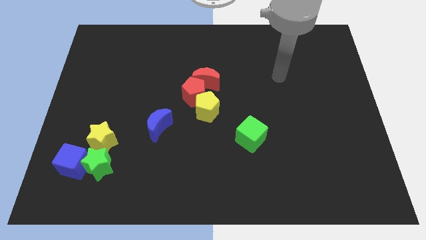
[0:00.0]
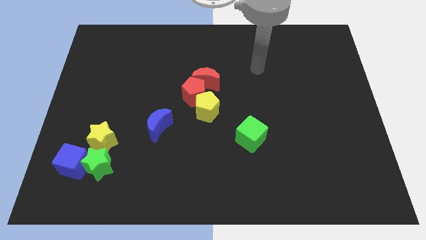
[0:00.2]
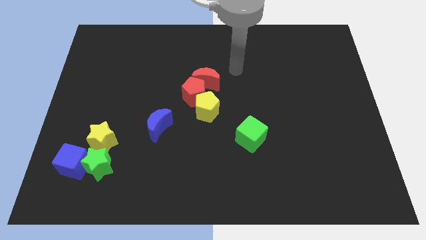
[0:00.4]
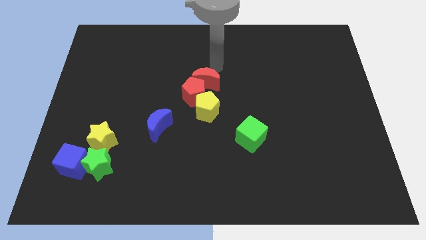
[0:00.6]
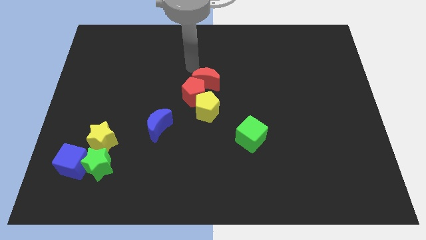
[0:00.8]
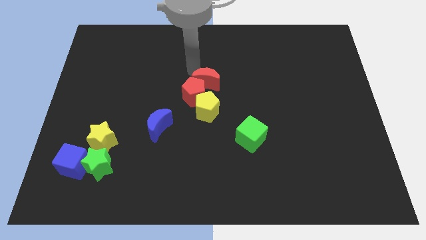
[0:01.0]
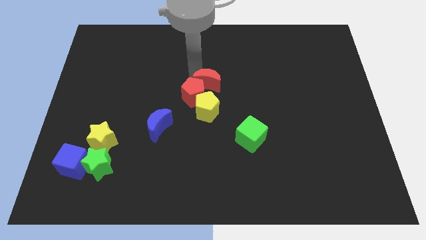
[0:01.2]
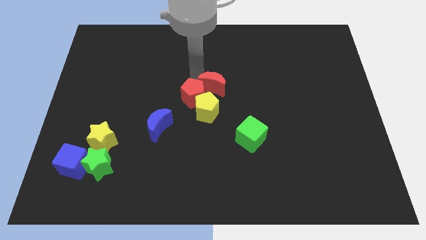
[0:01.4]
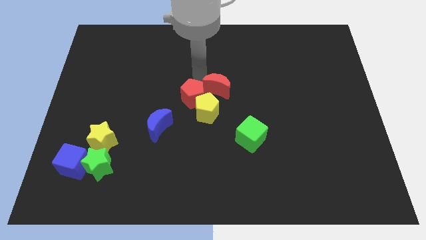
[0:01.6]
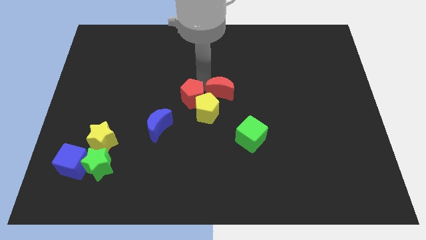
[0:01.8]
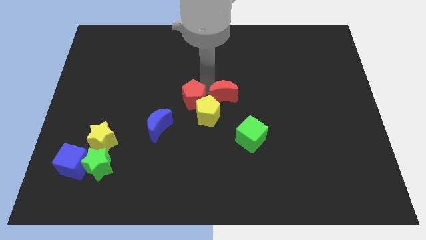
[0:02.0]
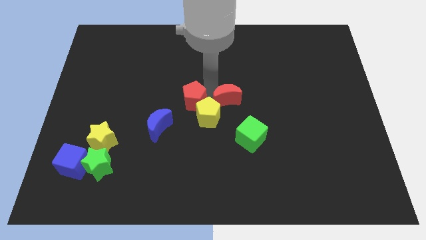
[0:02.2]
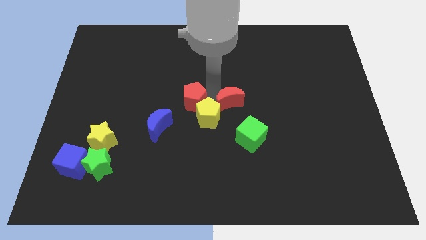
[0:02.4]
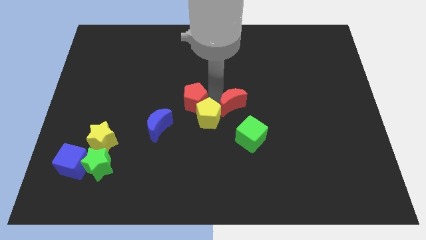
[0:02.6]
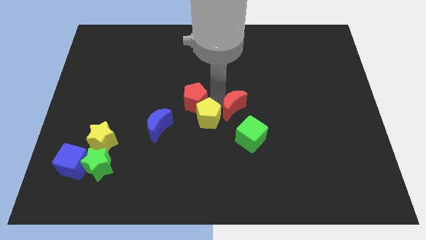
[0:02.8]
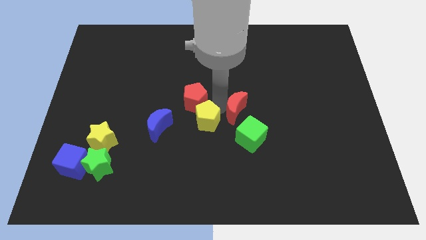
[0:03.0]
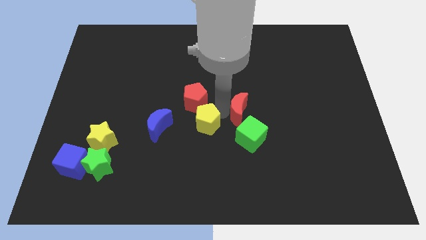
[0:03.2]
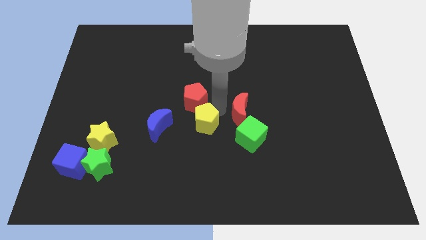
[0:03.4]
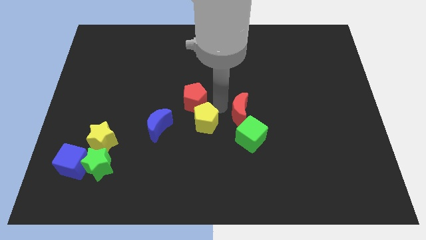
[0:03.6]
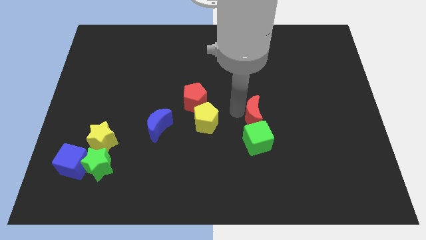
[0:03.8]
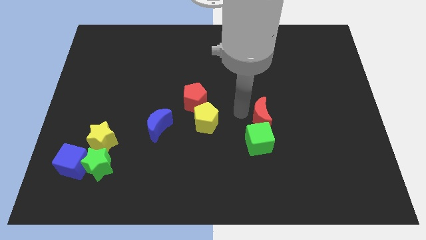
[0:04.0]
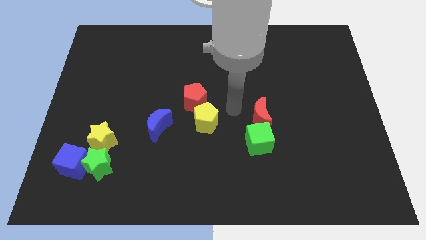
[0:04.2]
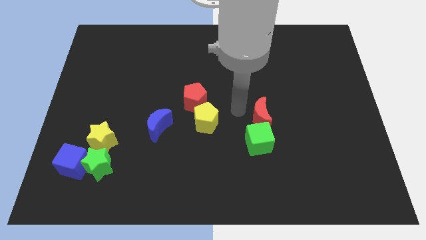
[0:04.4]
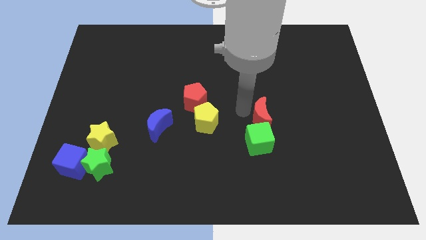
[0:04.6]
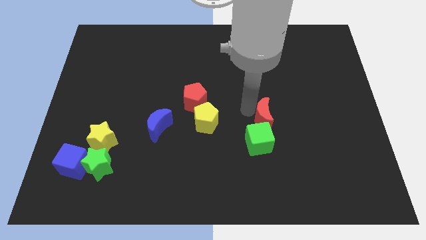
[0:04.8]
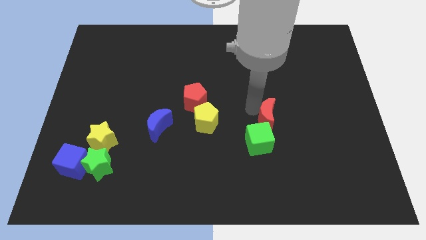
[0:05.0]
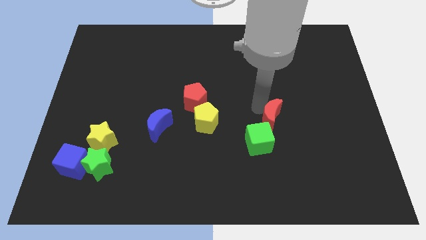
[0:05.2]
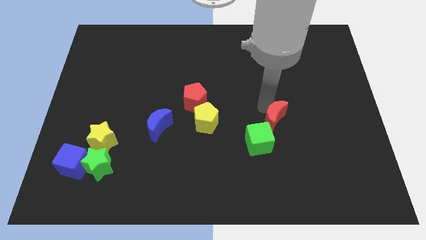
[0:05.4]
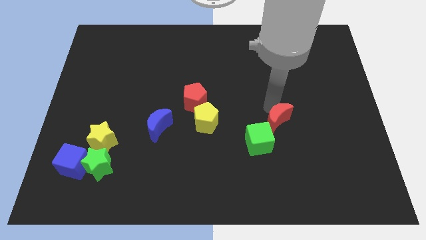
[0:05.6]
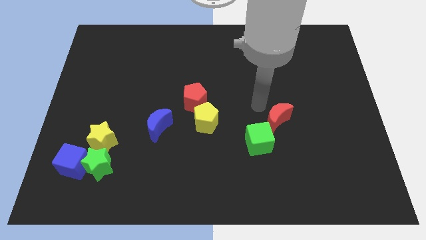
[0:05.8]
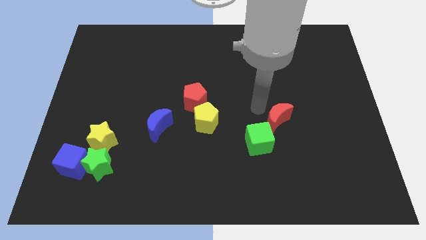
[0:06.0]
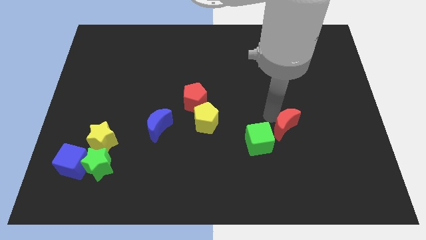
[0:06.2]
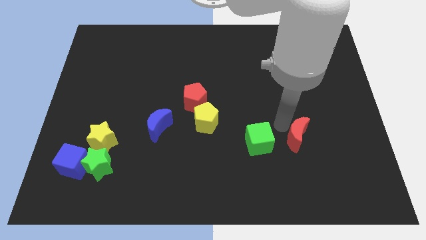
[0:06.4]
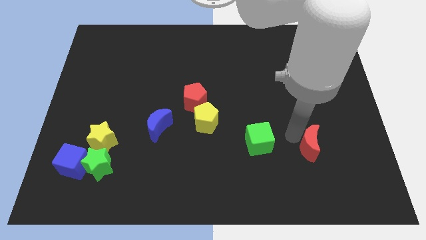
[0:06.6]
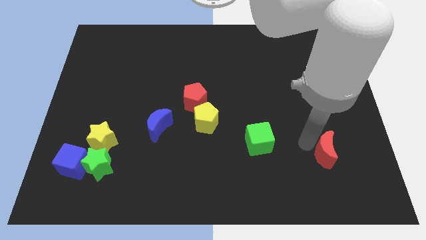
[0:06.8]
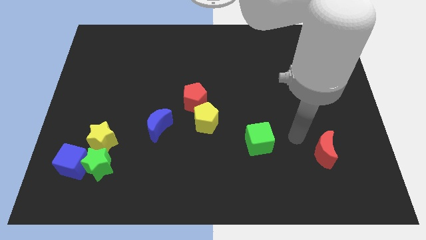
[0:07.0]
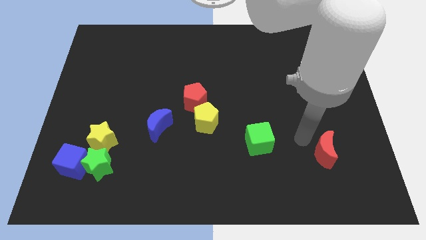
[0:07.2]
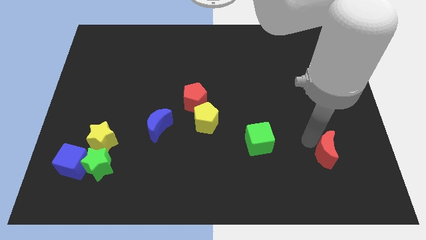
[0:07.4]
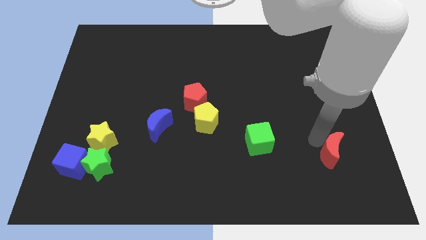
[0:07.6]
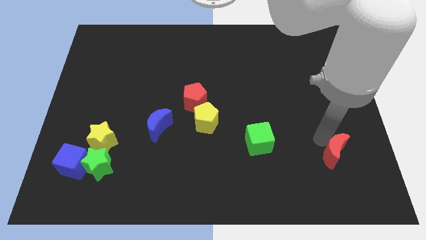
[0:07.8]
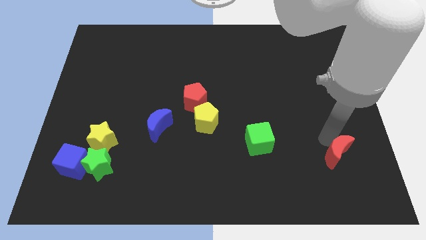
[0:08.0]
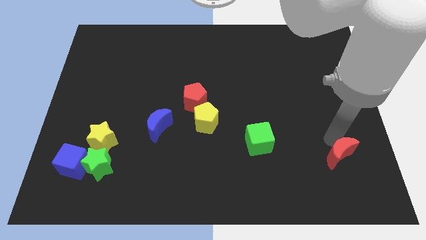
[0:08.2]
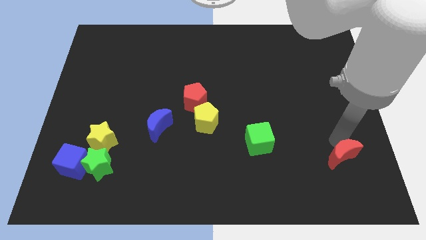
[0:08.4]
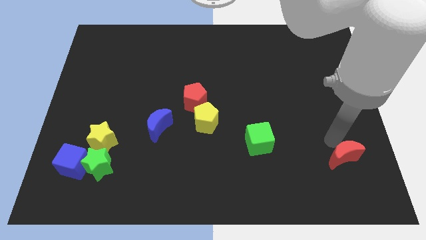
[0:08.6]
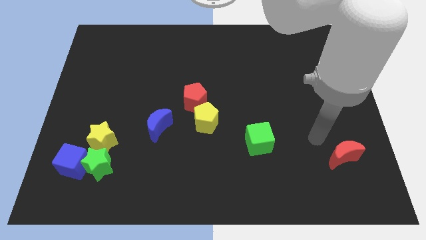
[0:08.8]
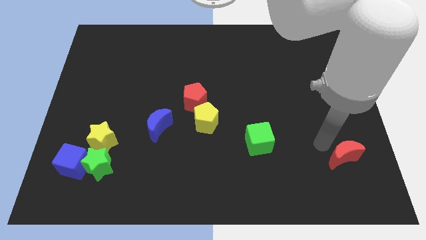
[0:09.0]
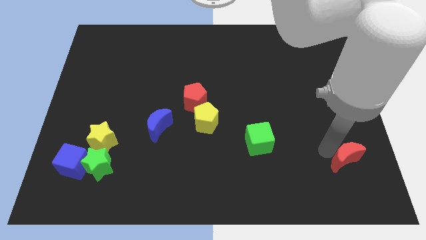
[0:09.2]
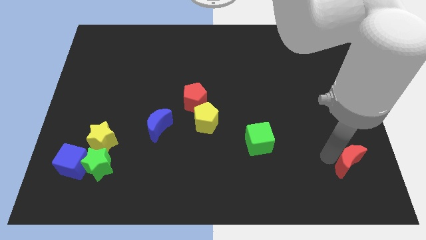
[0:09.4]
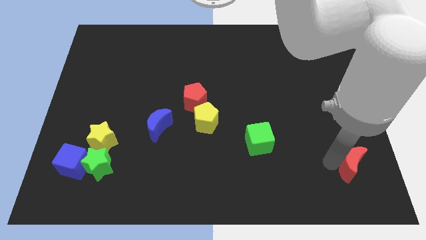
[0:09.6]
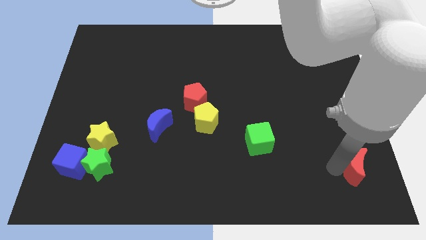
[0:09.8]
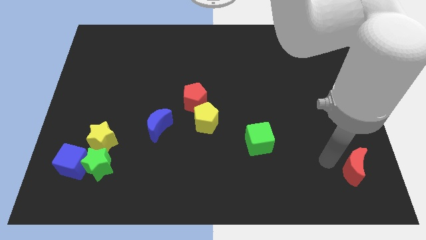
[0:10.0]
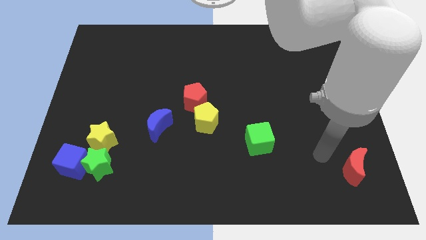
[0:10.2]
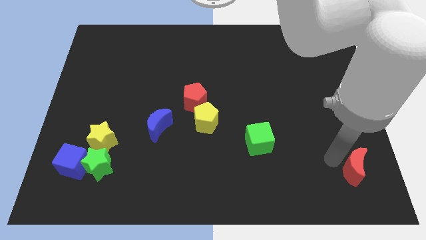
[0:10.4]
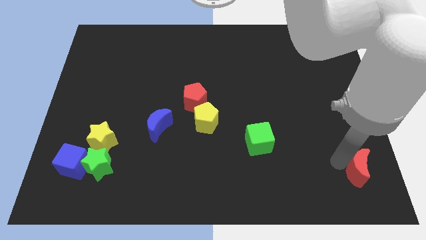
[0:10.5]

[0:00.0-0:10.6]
put the red moon to the bottom right corner
